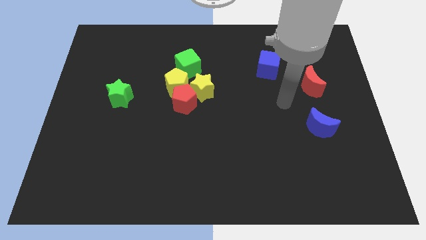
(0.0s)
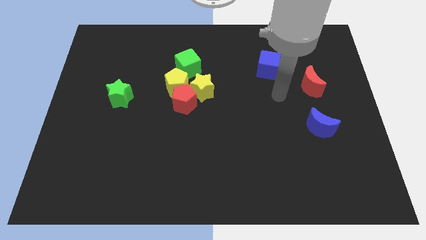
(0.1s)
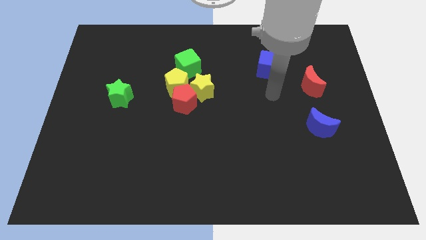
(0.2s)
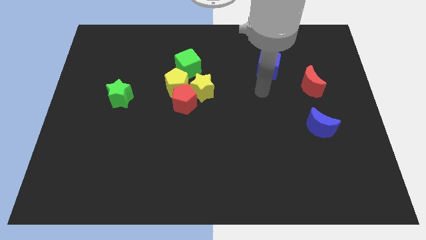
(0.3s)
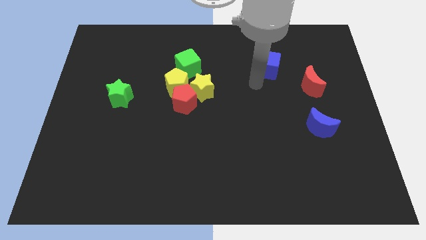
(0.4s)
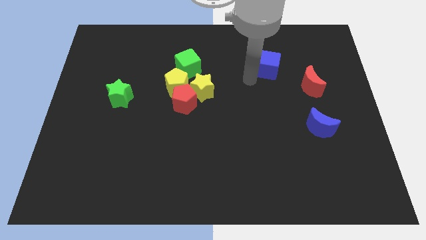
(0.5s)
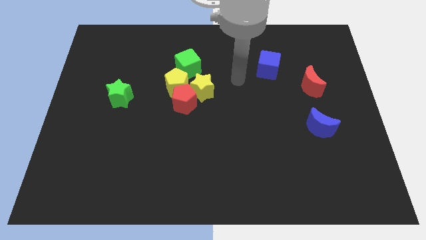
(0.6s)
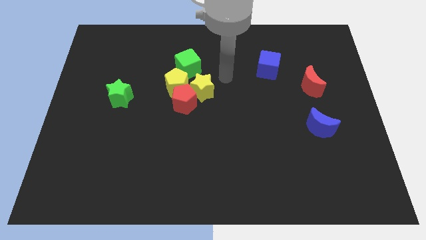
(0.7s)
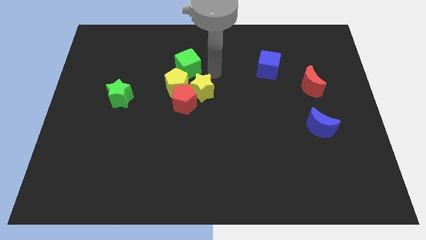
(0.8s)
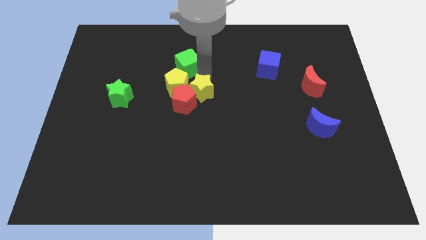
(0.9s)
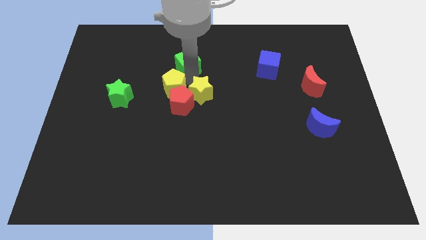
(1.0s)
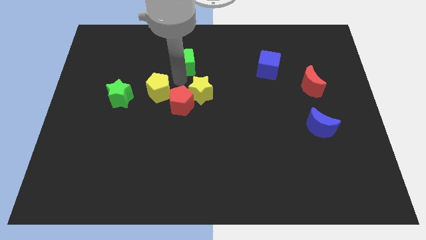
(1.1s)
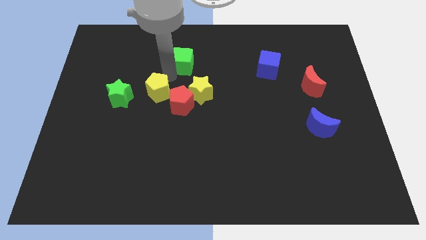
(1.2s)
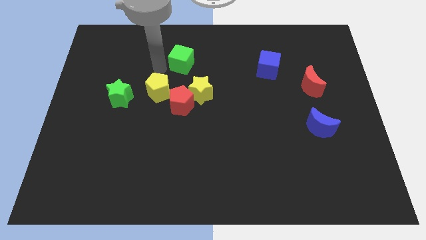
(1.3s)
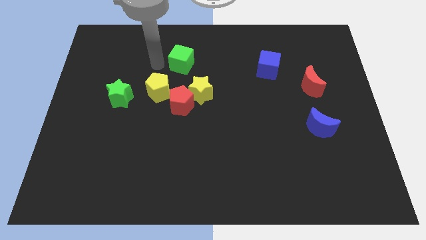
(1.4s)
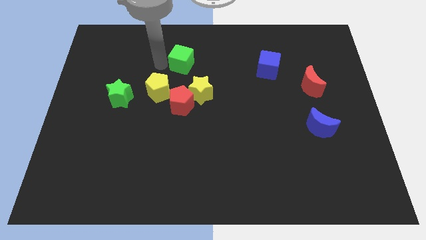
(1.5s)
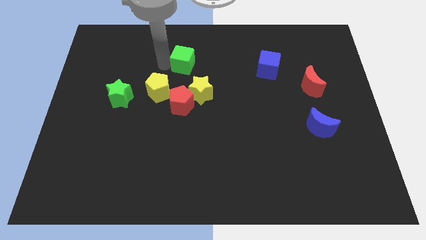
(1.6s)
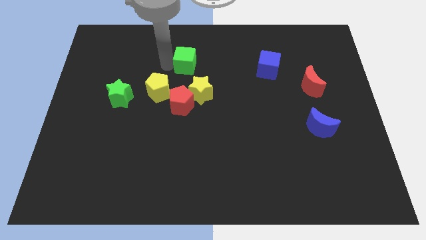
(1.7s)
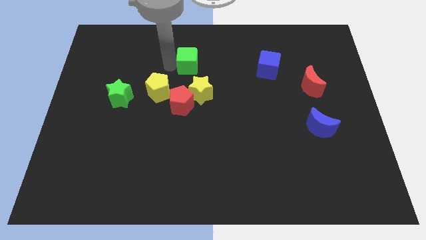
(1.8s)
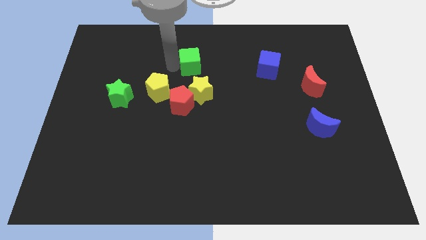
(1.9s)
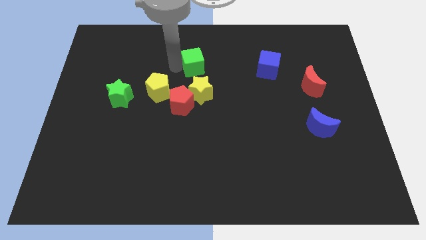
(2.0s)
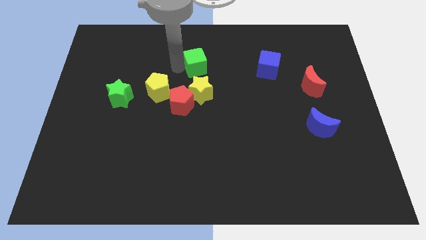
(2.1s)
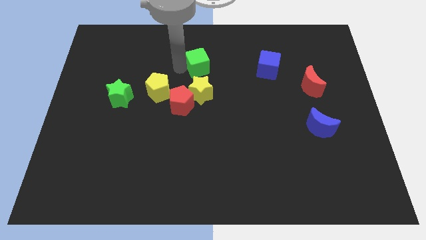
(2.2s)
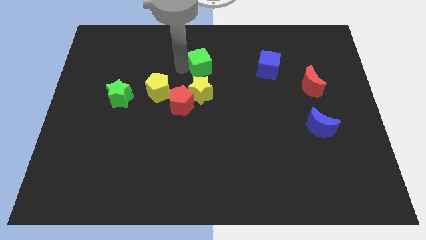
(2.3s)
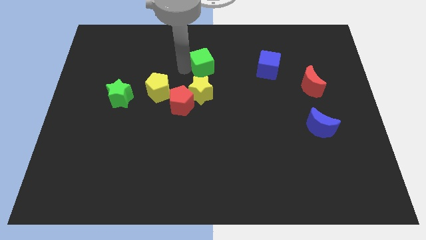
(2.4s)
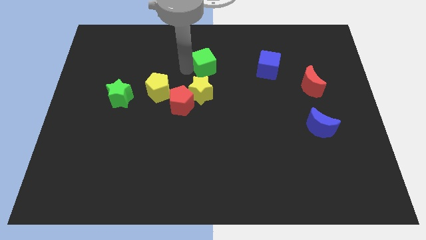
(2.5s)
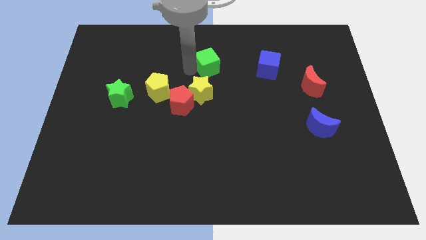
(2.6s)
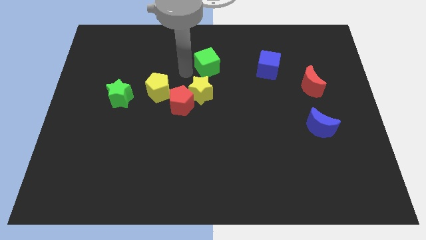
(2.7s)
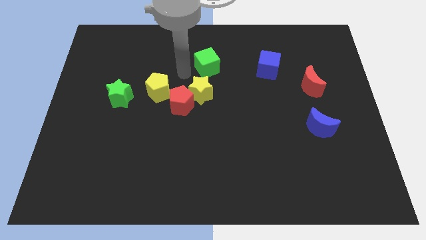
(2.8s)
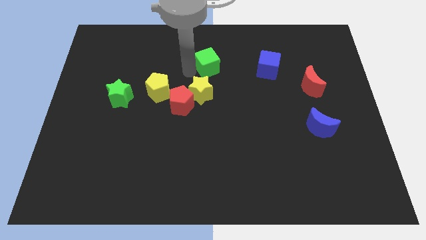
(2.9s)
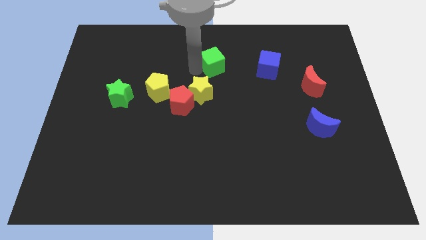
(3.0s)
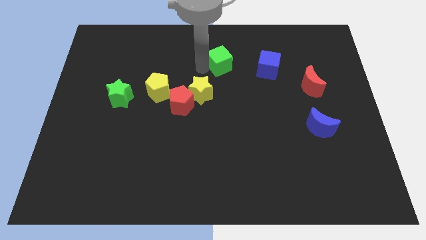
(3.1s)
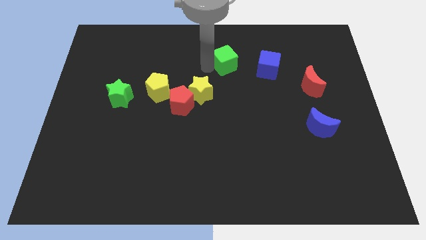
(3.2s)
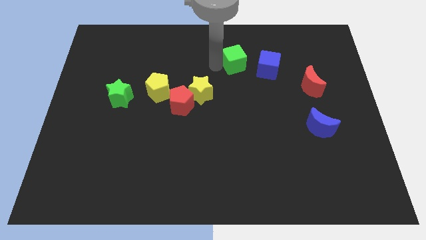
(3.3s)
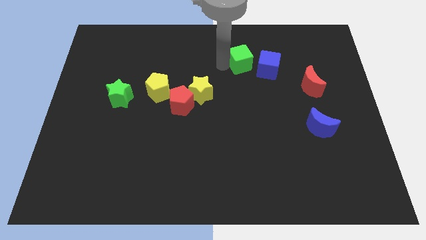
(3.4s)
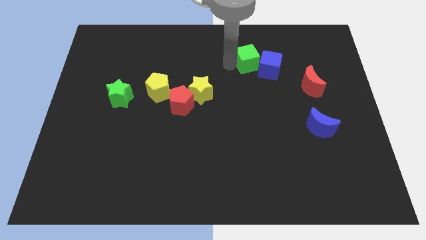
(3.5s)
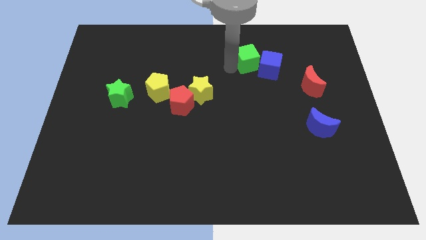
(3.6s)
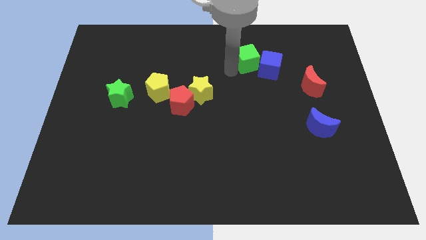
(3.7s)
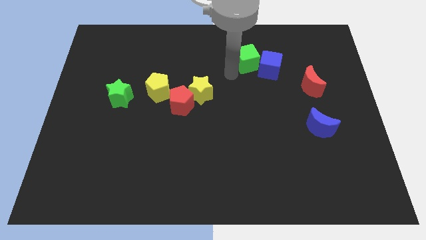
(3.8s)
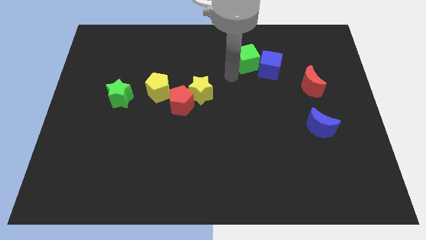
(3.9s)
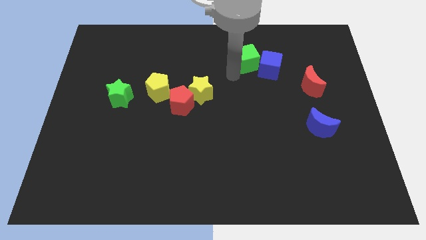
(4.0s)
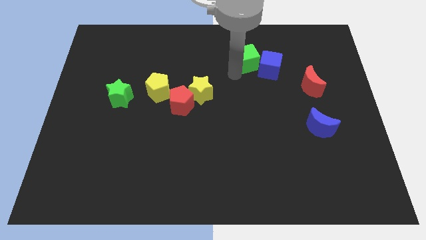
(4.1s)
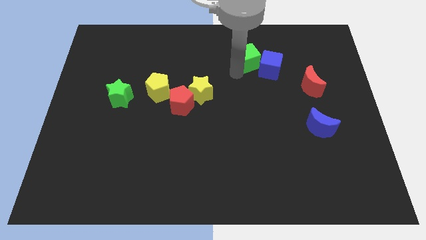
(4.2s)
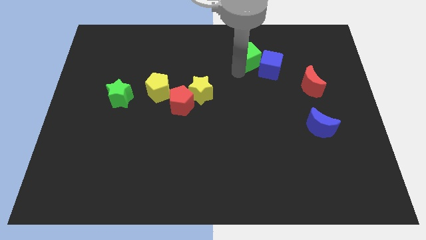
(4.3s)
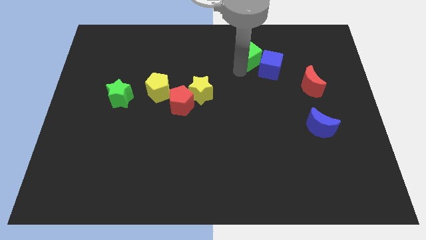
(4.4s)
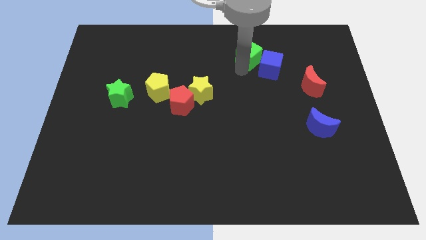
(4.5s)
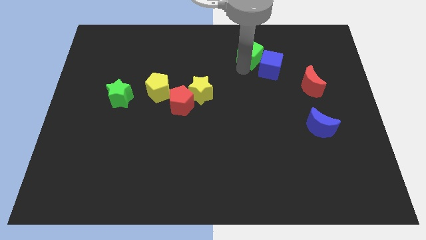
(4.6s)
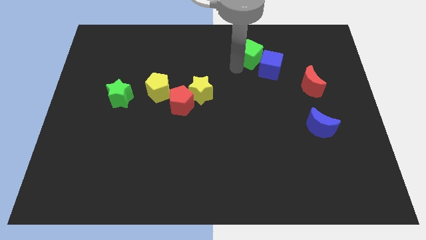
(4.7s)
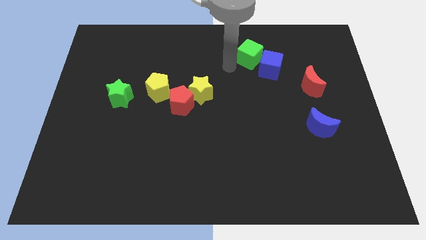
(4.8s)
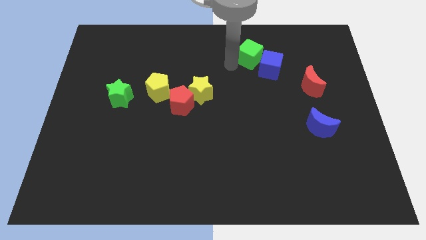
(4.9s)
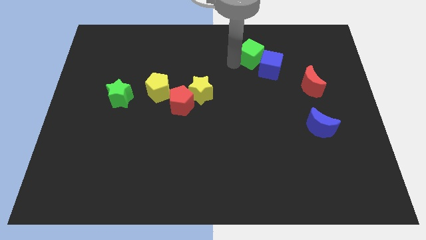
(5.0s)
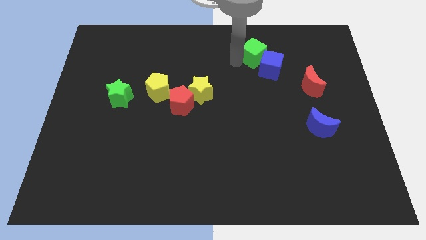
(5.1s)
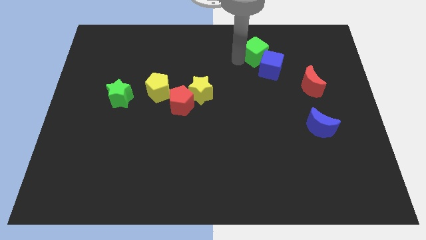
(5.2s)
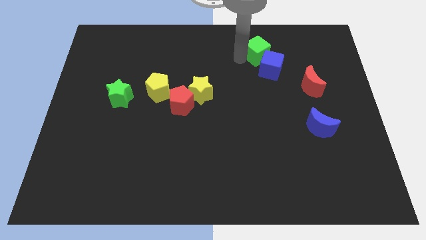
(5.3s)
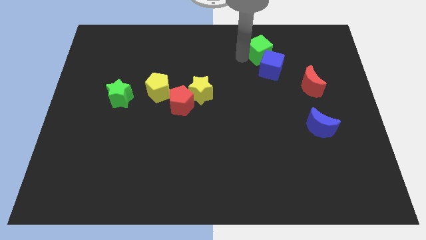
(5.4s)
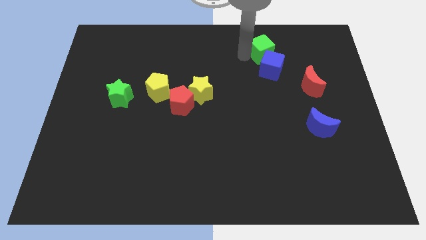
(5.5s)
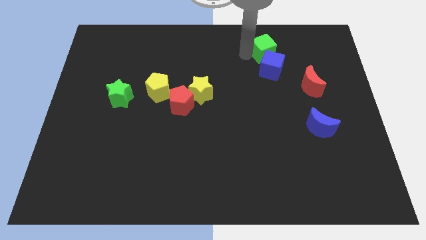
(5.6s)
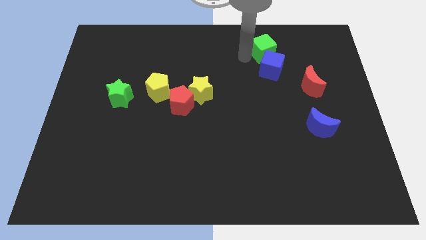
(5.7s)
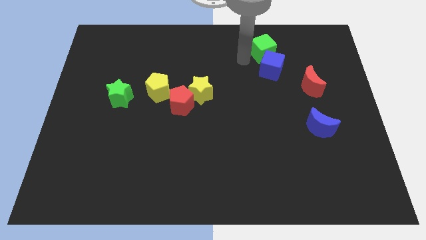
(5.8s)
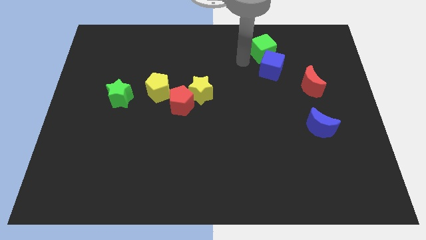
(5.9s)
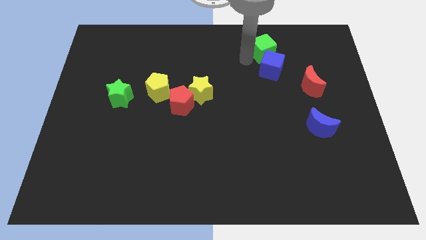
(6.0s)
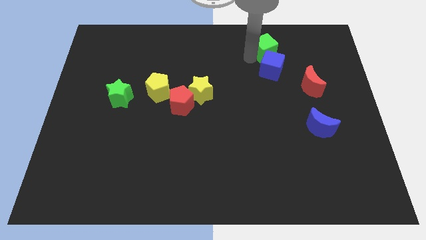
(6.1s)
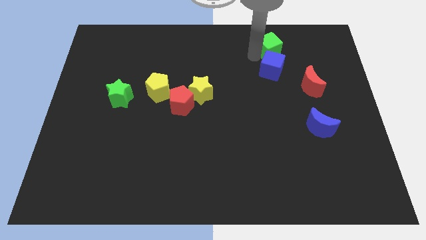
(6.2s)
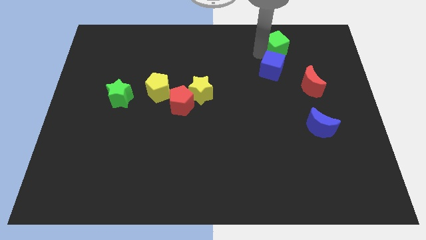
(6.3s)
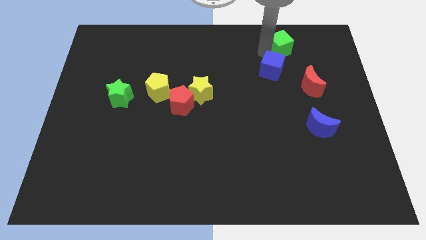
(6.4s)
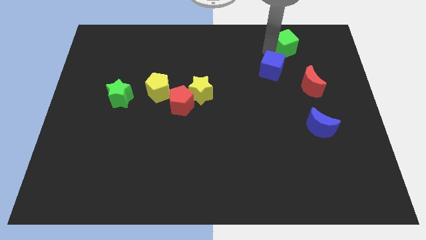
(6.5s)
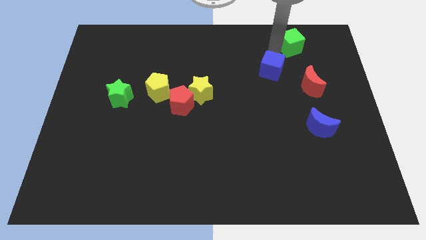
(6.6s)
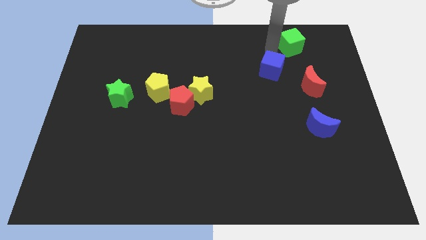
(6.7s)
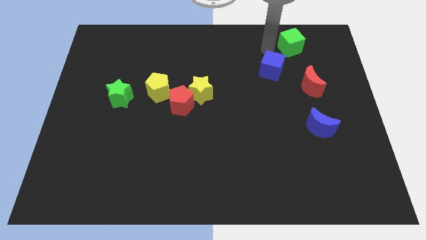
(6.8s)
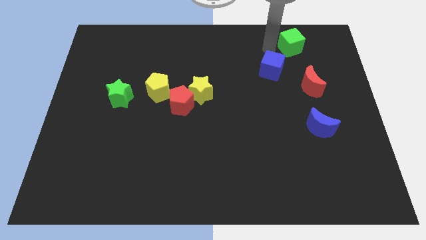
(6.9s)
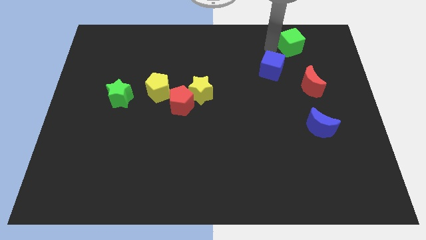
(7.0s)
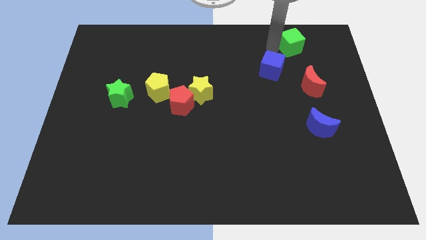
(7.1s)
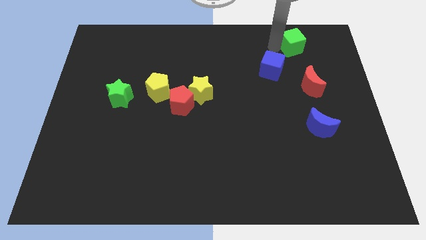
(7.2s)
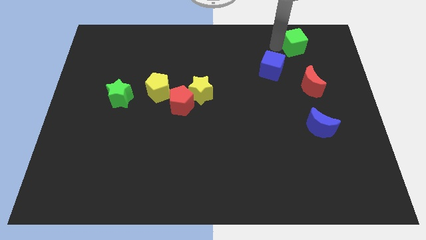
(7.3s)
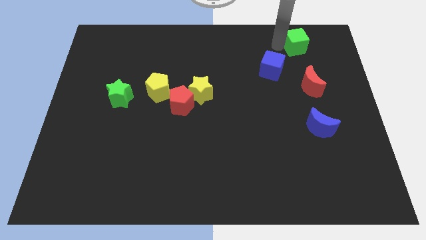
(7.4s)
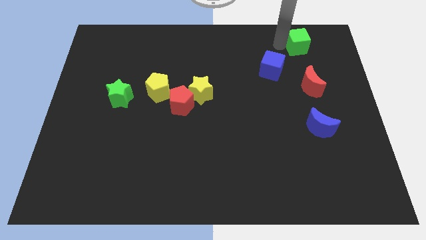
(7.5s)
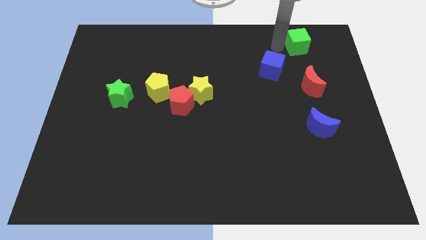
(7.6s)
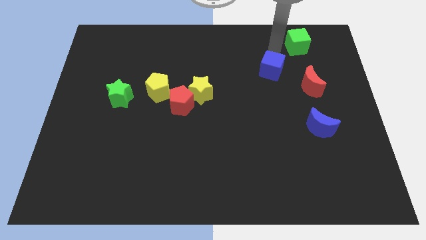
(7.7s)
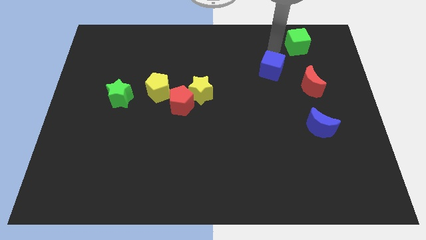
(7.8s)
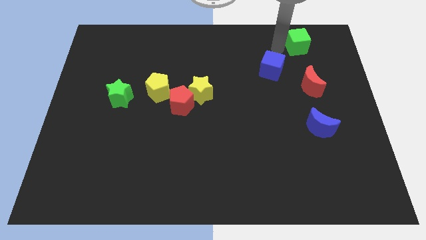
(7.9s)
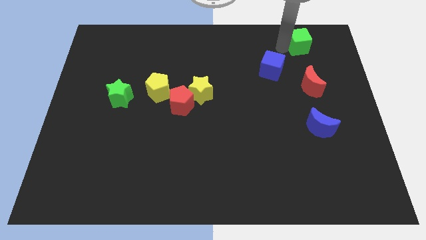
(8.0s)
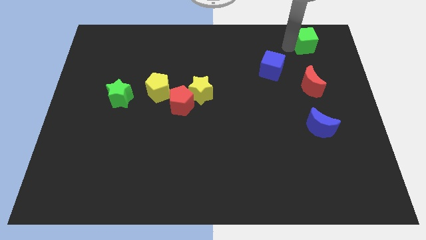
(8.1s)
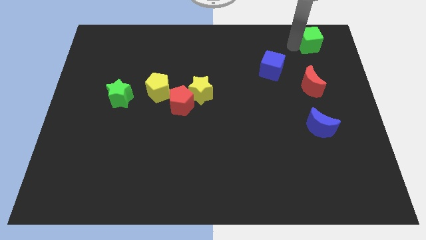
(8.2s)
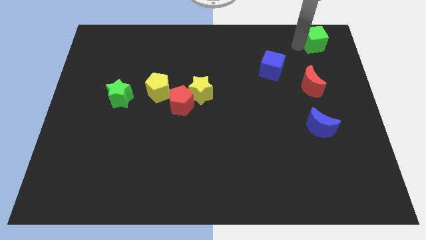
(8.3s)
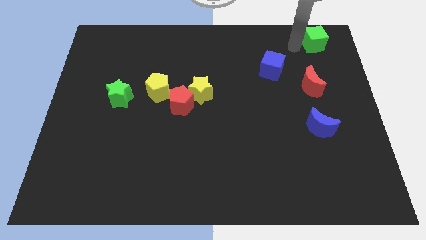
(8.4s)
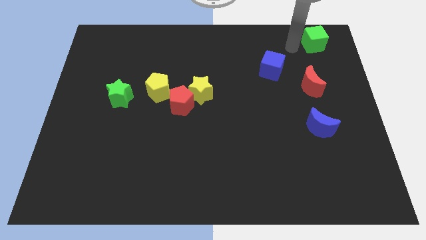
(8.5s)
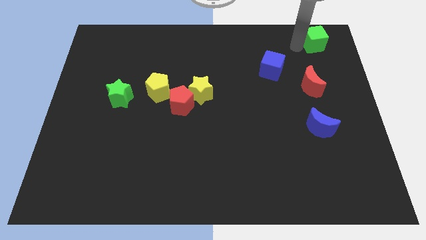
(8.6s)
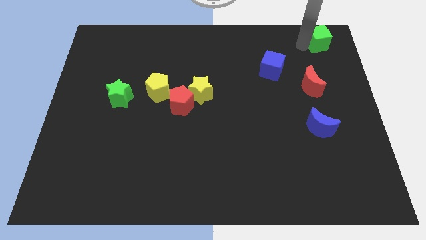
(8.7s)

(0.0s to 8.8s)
slide the green cube to the top right of the board
